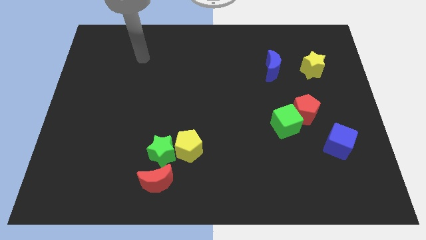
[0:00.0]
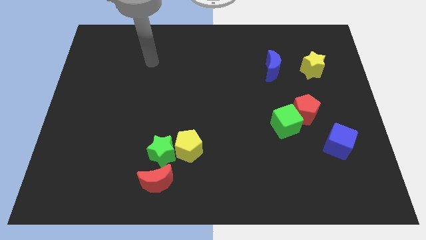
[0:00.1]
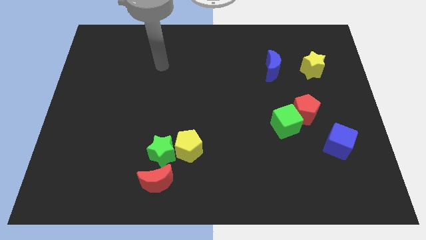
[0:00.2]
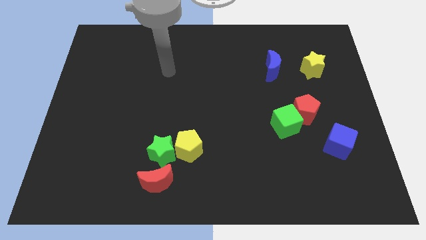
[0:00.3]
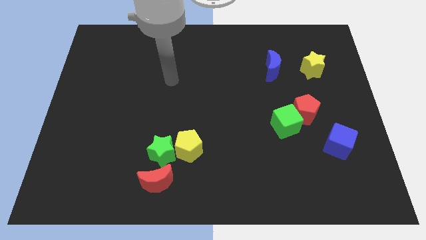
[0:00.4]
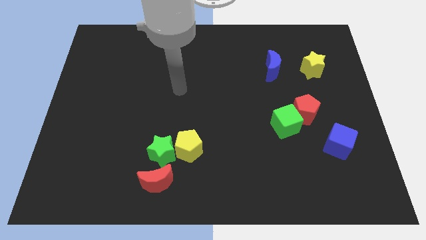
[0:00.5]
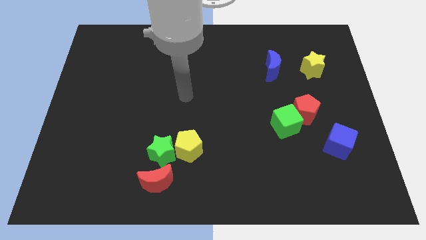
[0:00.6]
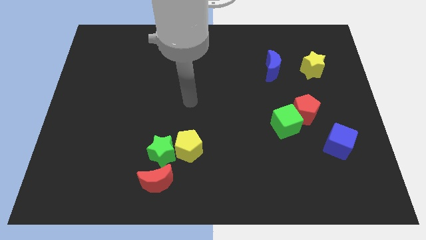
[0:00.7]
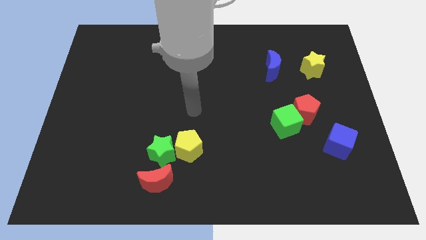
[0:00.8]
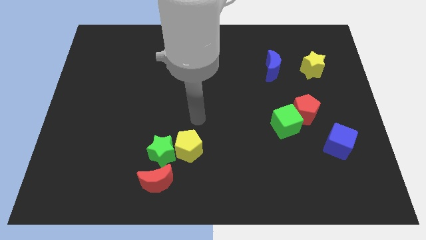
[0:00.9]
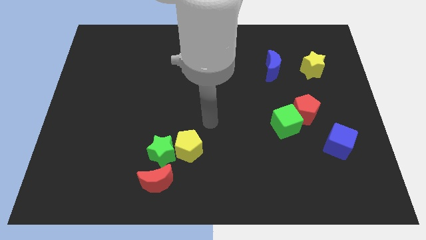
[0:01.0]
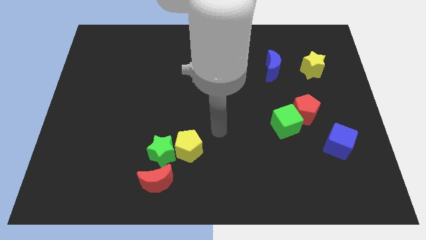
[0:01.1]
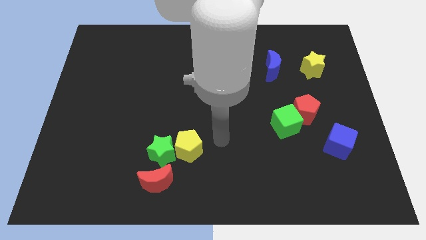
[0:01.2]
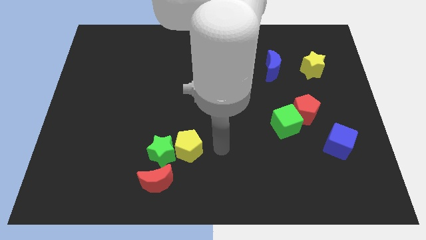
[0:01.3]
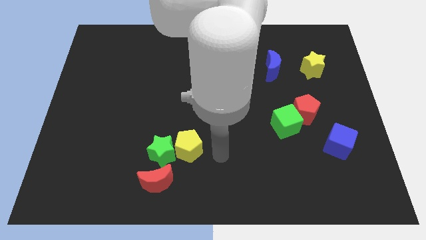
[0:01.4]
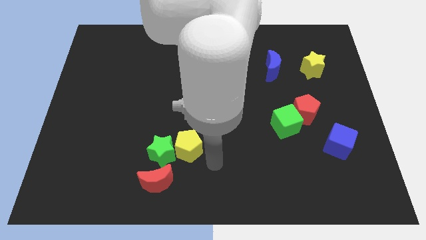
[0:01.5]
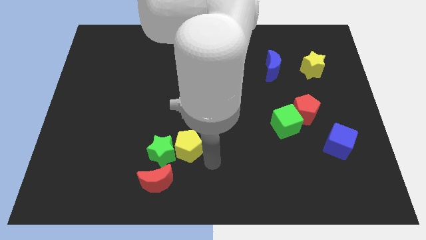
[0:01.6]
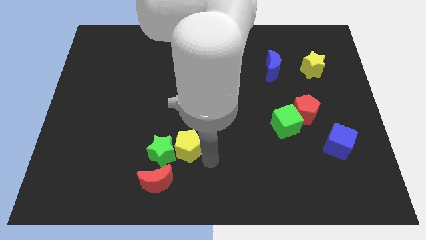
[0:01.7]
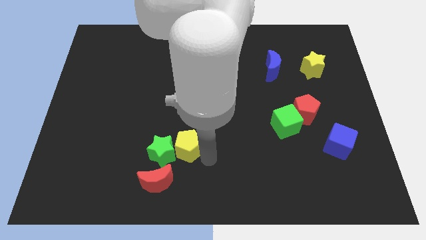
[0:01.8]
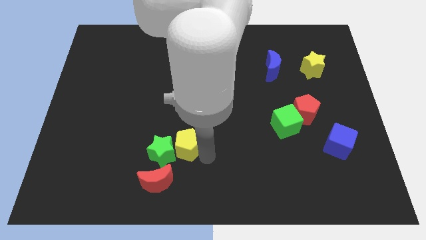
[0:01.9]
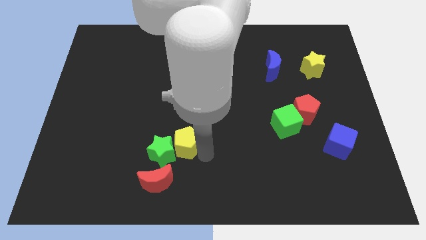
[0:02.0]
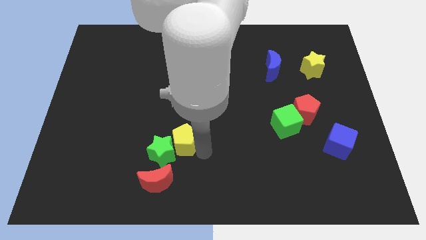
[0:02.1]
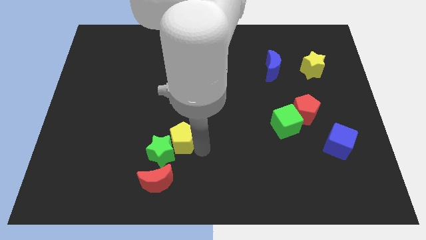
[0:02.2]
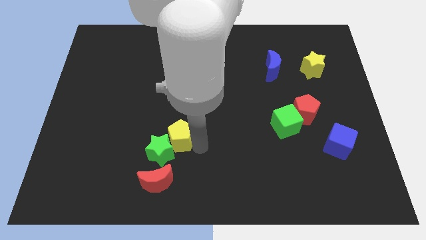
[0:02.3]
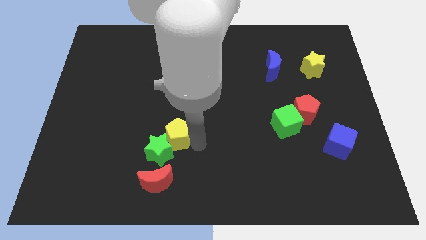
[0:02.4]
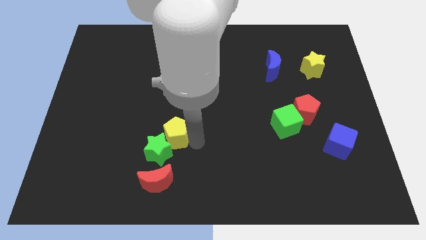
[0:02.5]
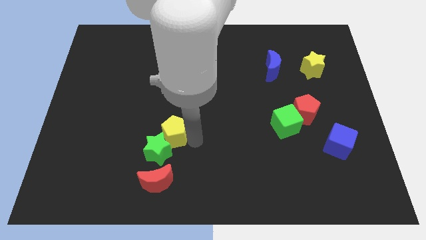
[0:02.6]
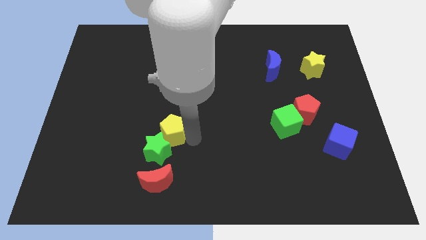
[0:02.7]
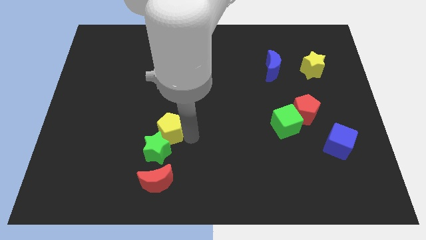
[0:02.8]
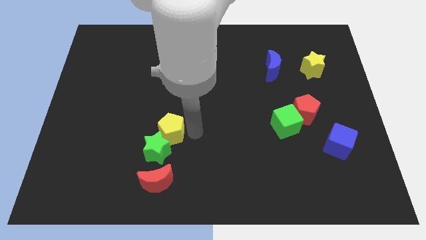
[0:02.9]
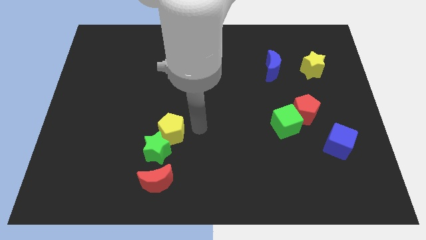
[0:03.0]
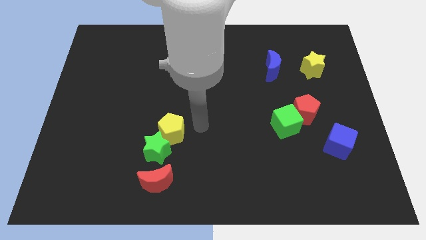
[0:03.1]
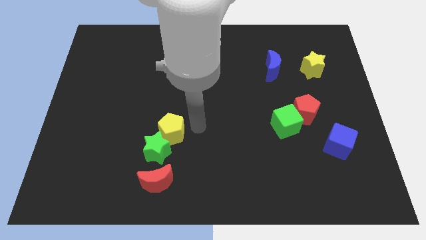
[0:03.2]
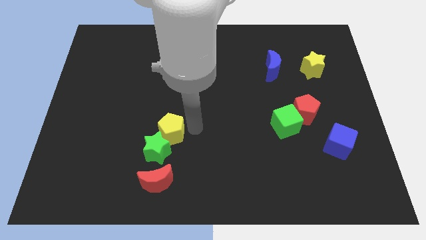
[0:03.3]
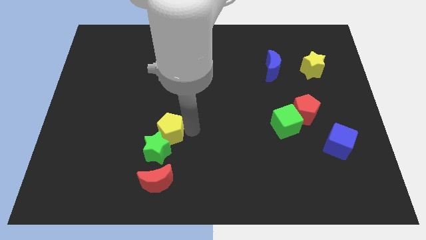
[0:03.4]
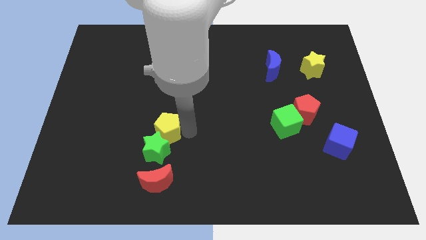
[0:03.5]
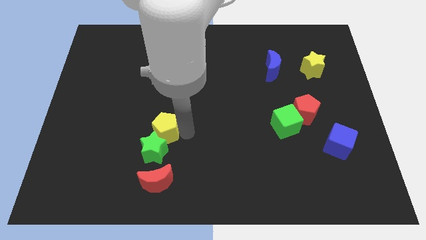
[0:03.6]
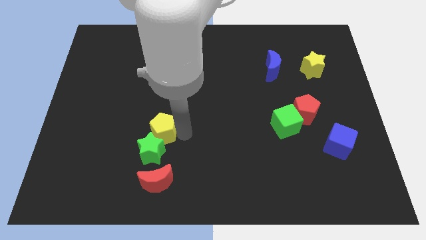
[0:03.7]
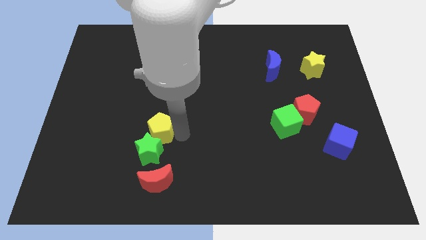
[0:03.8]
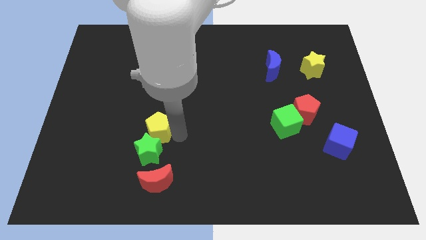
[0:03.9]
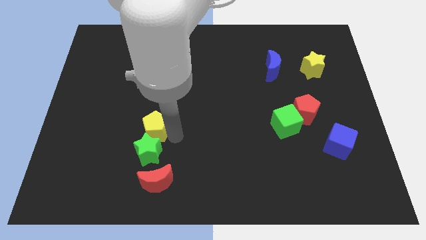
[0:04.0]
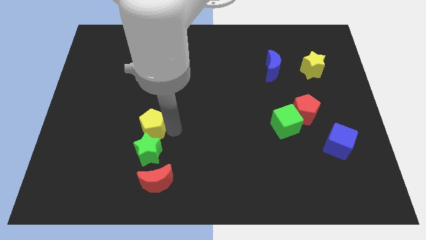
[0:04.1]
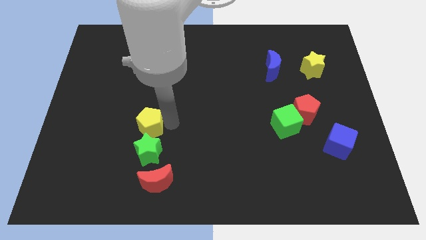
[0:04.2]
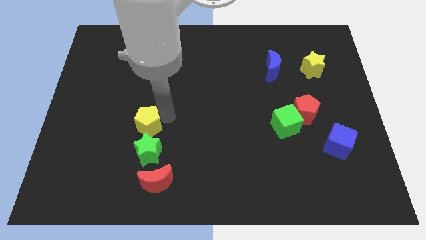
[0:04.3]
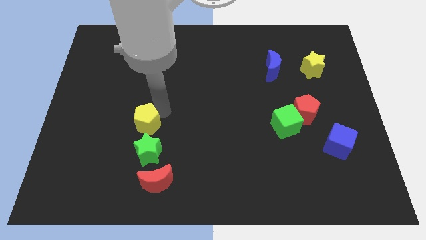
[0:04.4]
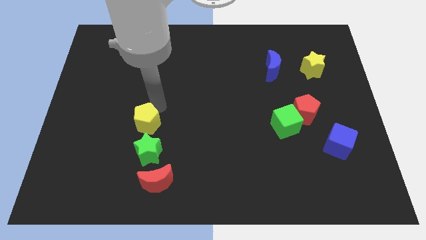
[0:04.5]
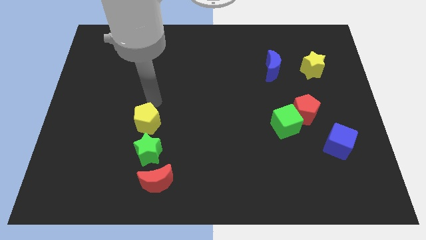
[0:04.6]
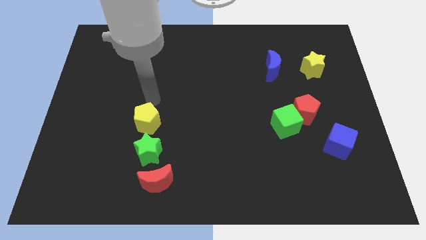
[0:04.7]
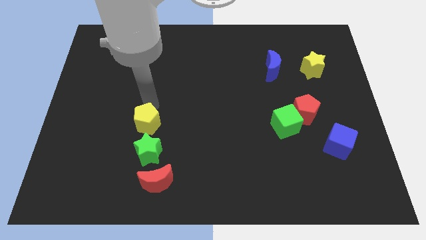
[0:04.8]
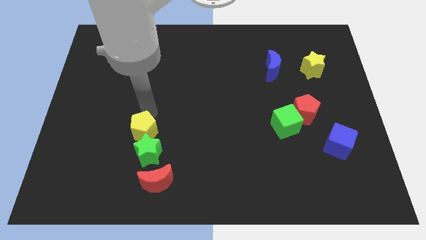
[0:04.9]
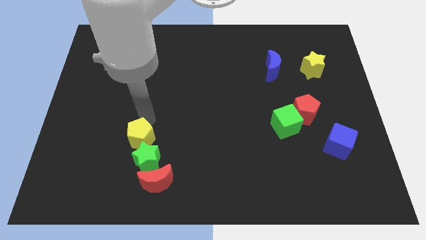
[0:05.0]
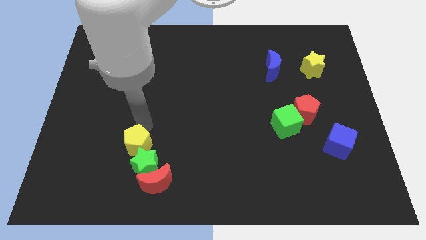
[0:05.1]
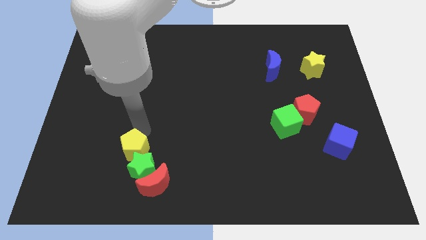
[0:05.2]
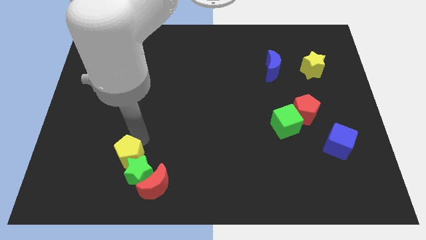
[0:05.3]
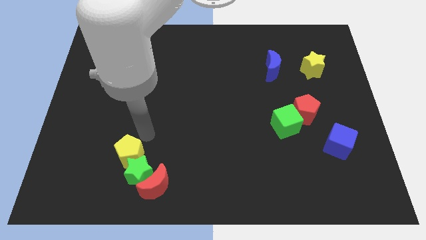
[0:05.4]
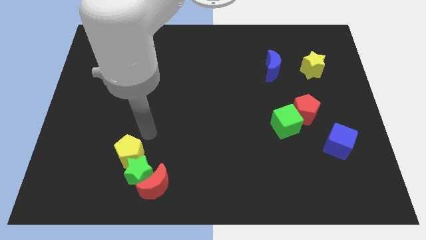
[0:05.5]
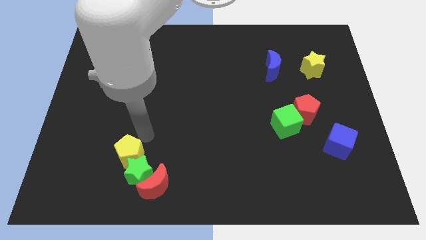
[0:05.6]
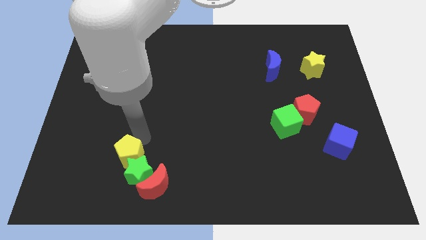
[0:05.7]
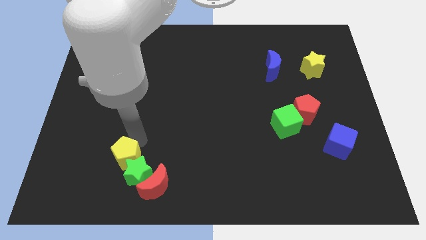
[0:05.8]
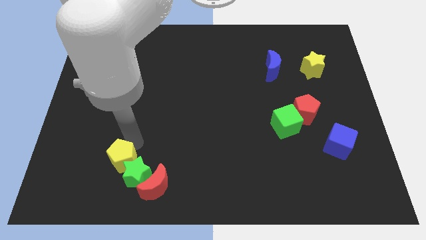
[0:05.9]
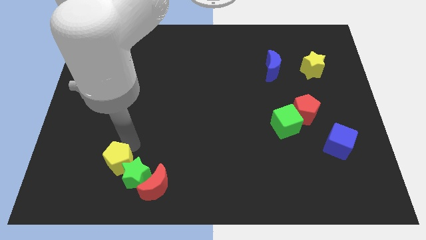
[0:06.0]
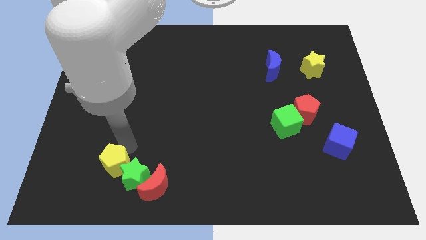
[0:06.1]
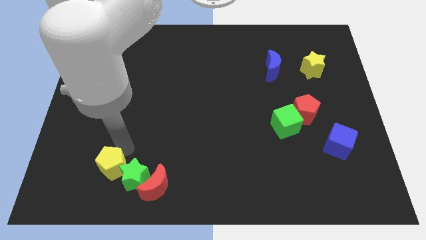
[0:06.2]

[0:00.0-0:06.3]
slide the yellow pentagon to the left of the red moon

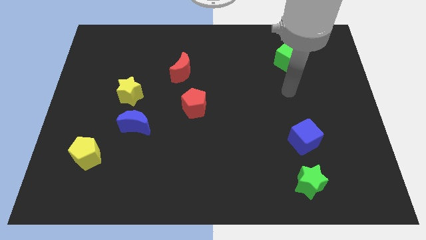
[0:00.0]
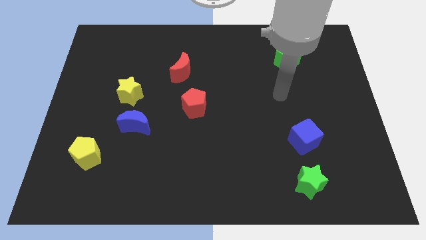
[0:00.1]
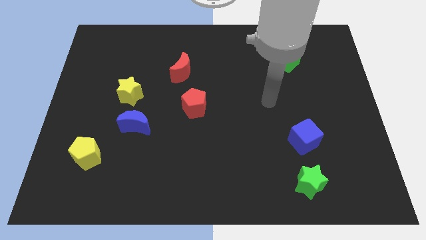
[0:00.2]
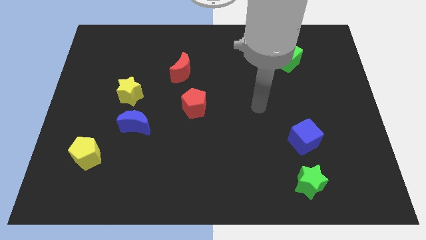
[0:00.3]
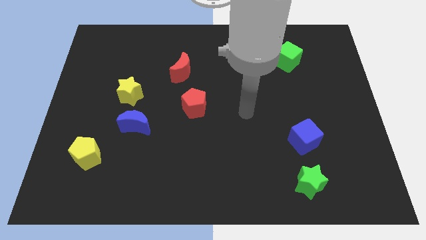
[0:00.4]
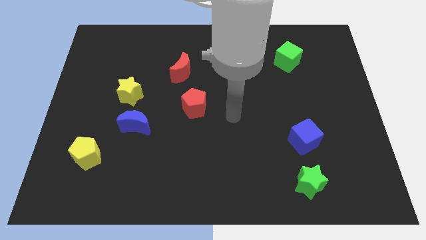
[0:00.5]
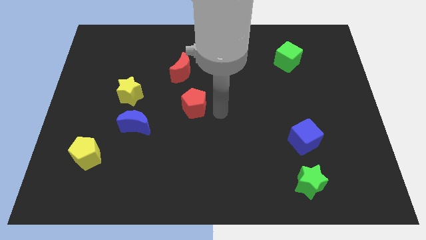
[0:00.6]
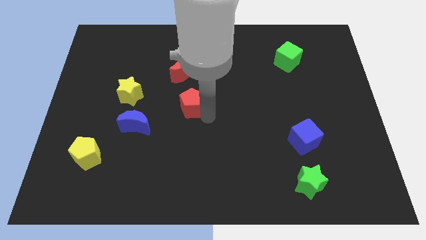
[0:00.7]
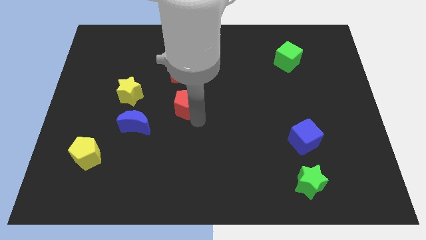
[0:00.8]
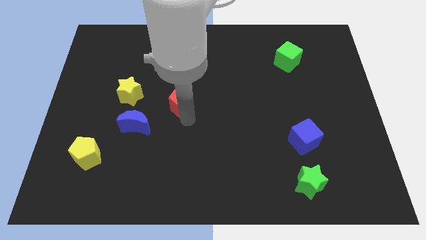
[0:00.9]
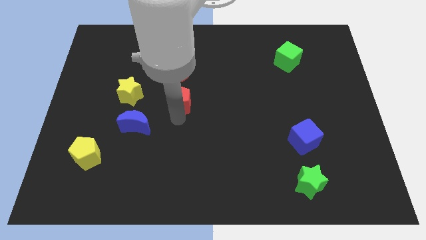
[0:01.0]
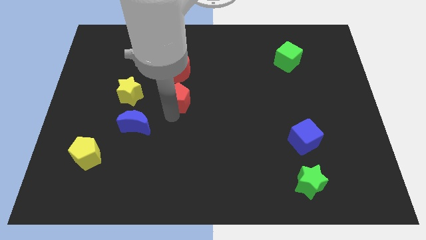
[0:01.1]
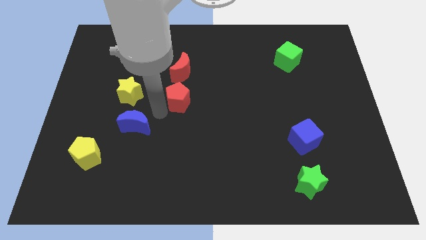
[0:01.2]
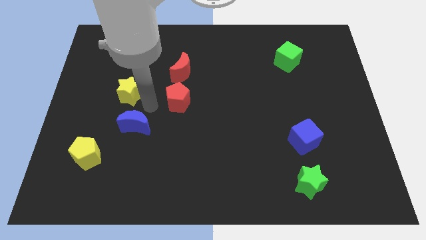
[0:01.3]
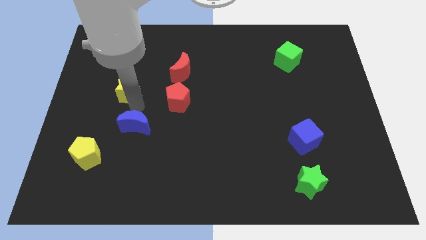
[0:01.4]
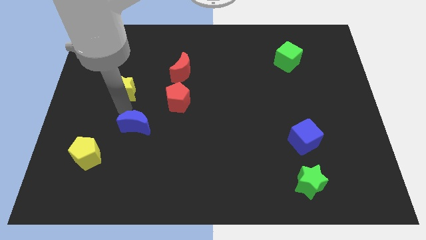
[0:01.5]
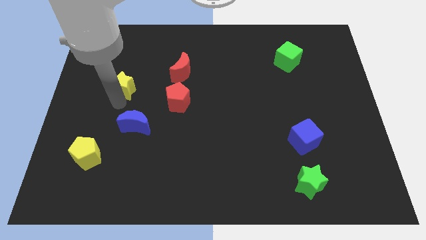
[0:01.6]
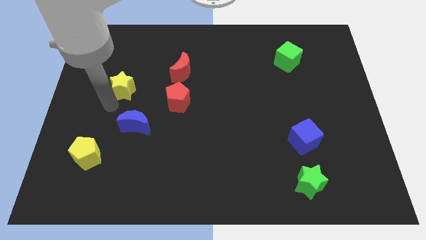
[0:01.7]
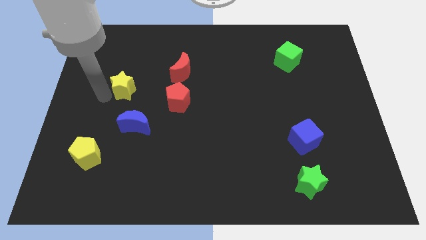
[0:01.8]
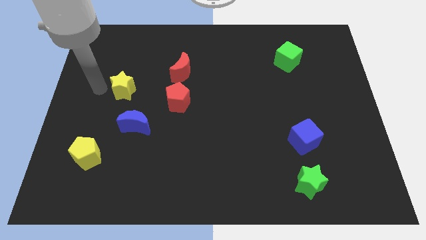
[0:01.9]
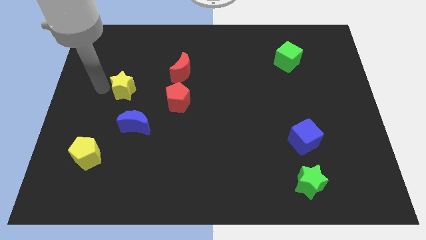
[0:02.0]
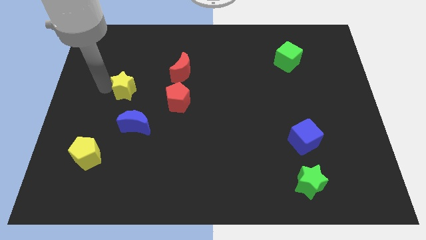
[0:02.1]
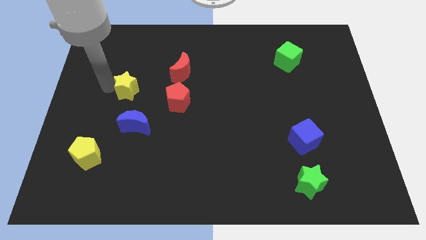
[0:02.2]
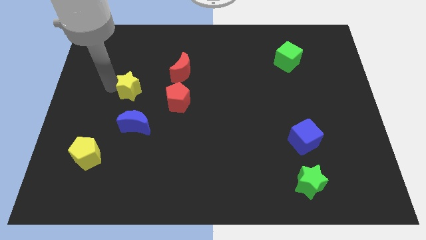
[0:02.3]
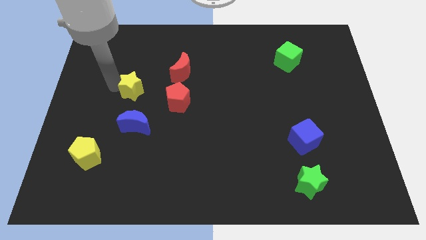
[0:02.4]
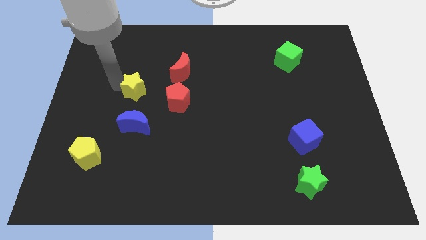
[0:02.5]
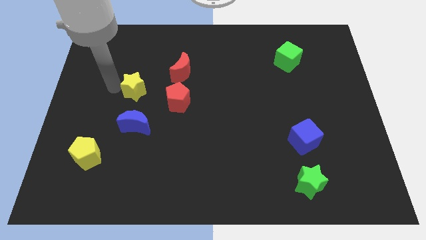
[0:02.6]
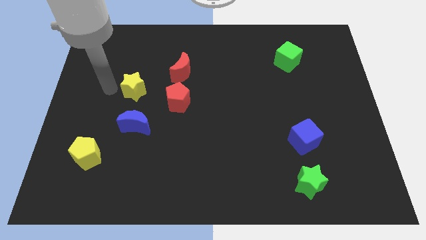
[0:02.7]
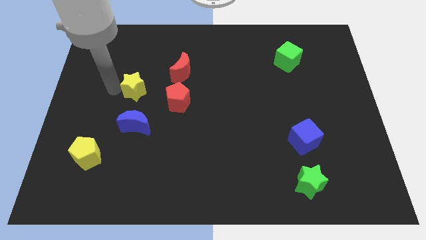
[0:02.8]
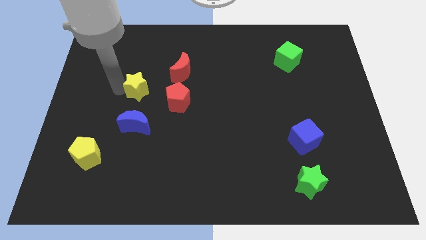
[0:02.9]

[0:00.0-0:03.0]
push the yellow star to the top left of the red pentagon
